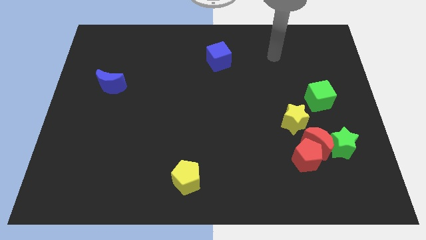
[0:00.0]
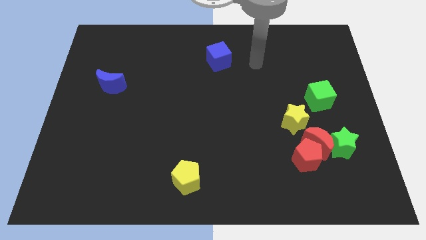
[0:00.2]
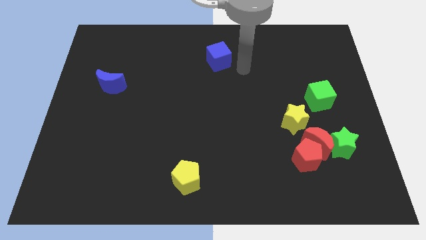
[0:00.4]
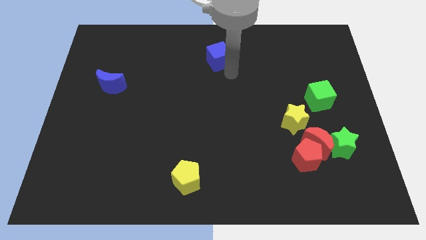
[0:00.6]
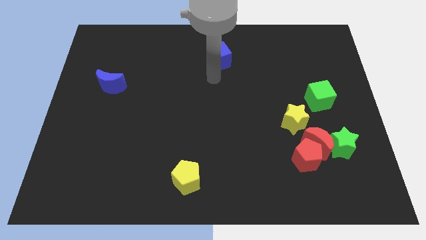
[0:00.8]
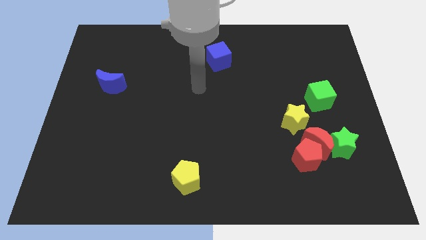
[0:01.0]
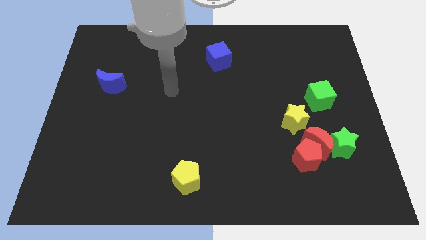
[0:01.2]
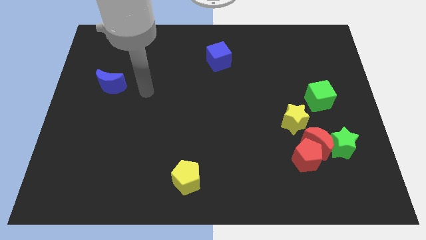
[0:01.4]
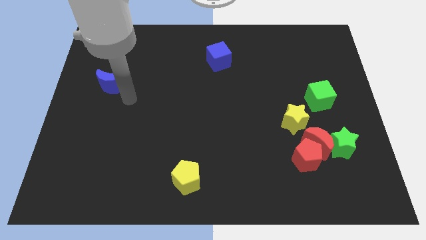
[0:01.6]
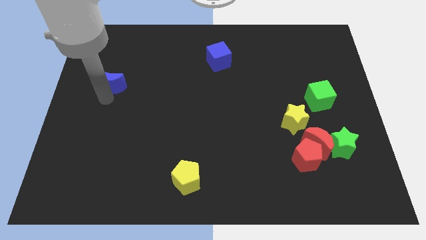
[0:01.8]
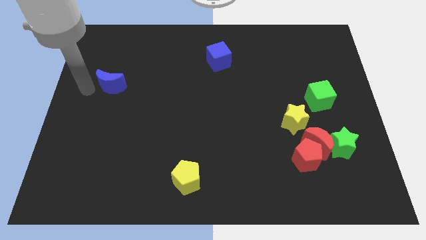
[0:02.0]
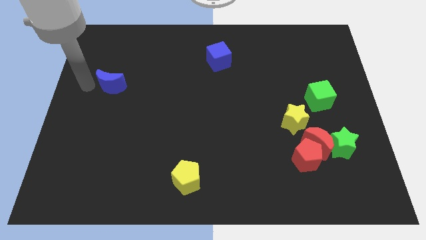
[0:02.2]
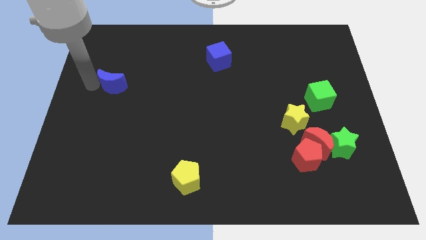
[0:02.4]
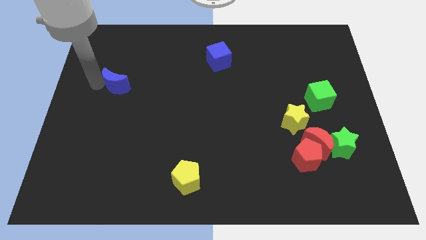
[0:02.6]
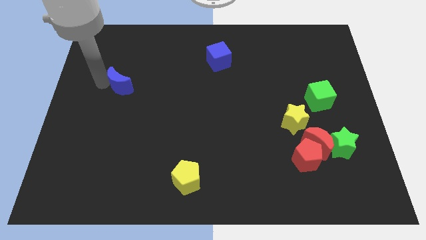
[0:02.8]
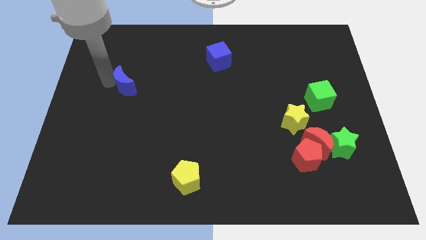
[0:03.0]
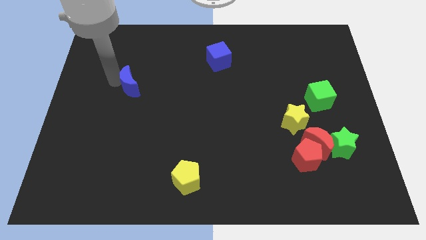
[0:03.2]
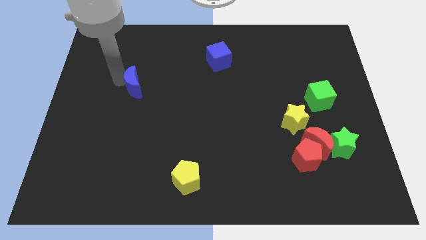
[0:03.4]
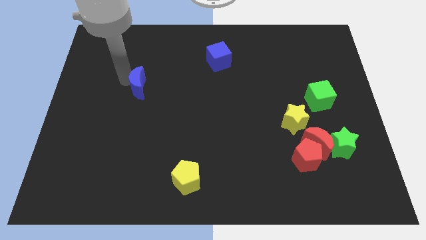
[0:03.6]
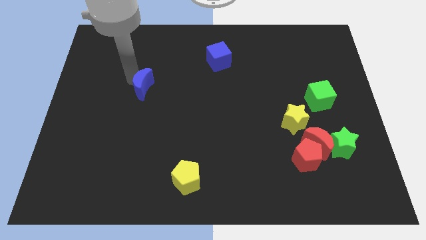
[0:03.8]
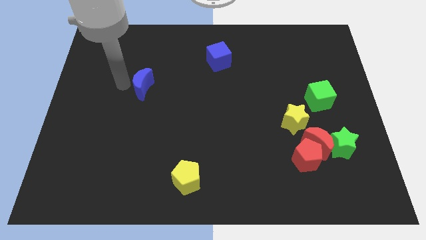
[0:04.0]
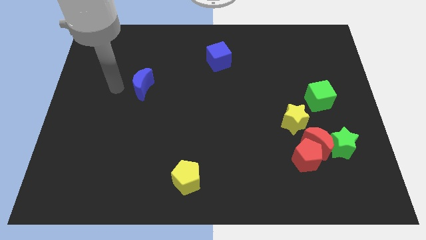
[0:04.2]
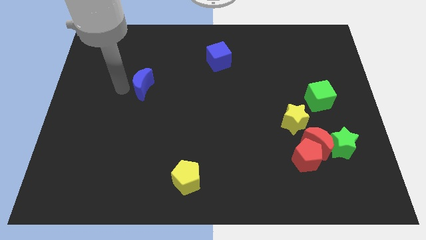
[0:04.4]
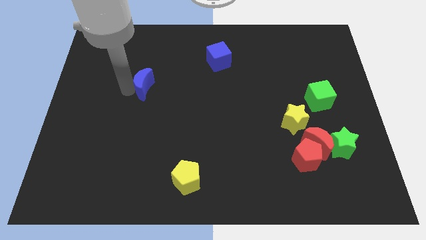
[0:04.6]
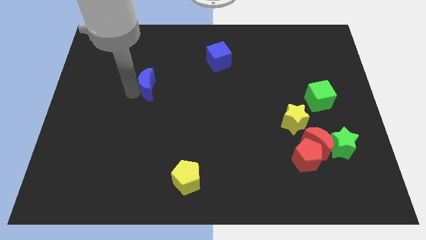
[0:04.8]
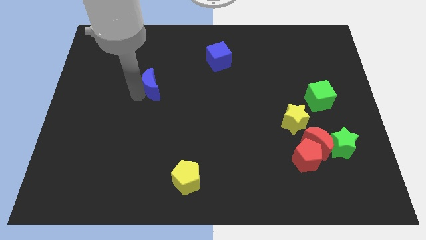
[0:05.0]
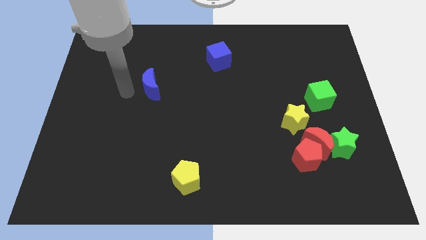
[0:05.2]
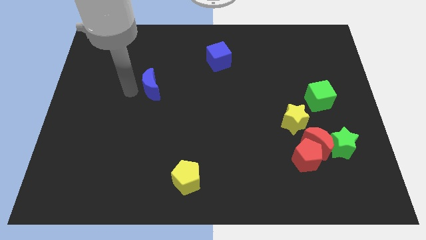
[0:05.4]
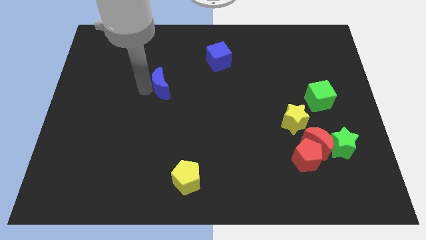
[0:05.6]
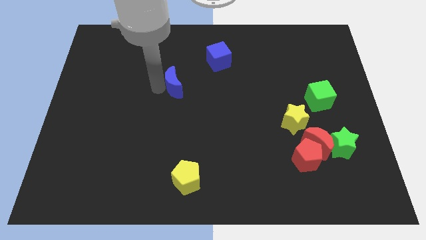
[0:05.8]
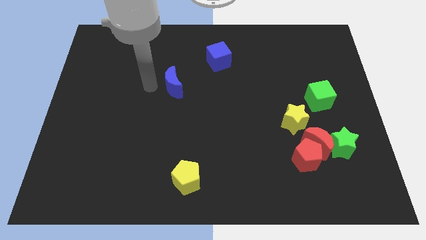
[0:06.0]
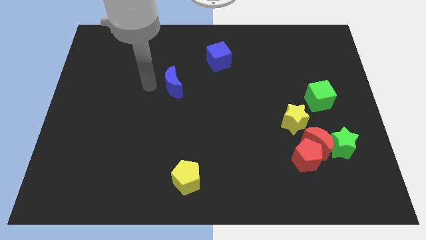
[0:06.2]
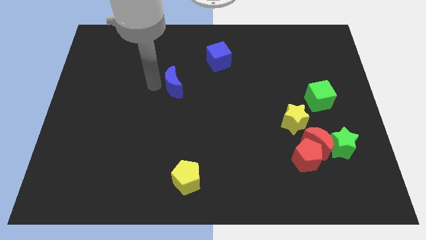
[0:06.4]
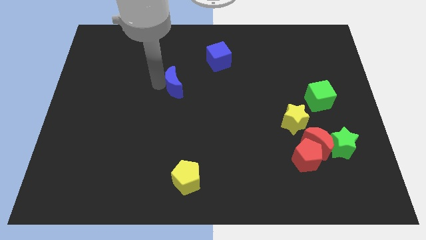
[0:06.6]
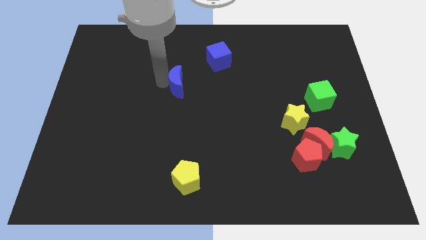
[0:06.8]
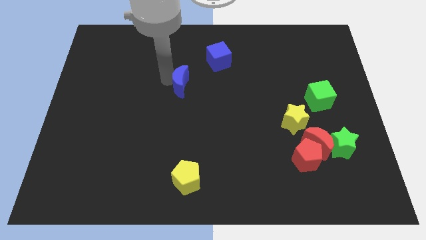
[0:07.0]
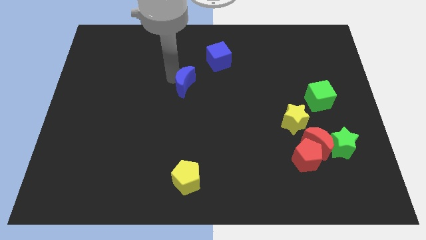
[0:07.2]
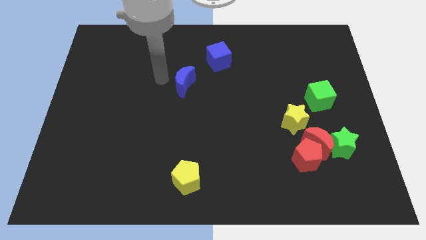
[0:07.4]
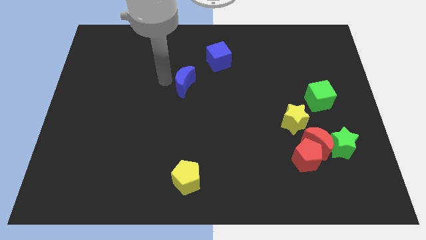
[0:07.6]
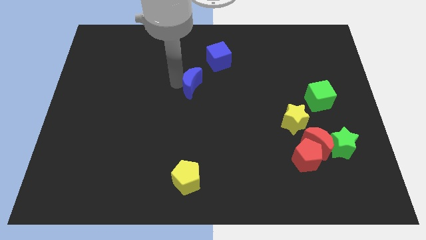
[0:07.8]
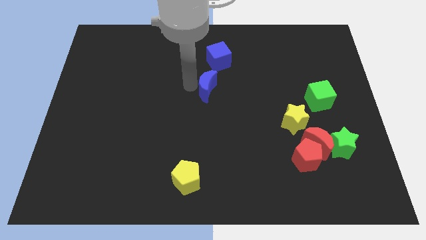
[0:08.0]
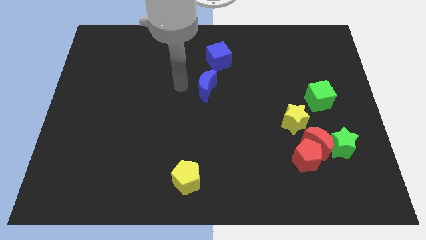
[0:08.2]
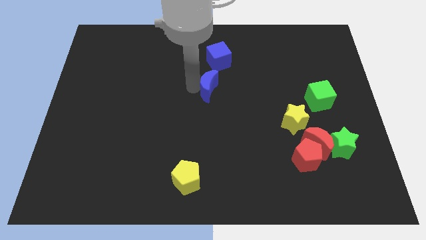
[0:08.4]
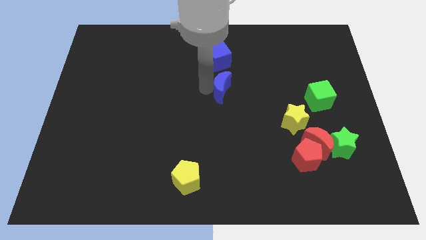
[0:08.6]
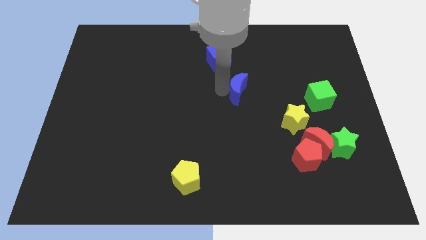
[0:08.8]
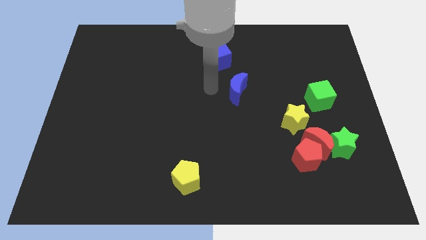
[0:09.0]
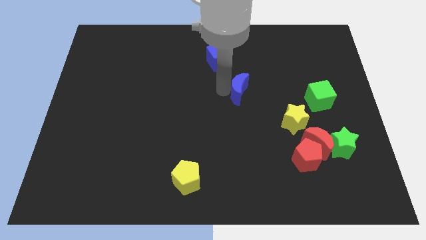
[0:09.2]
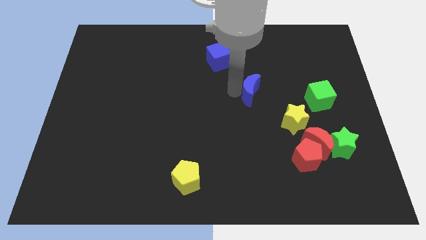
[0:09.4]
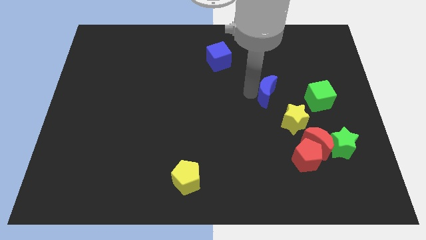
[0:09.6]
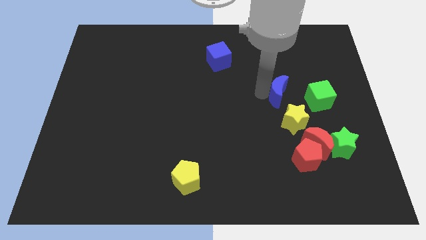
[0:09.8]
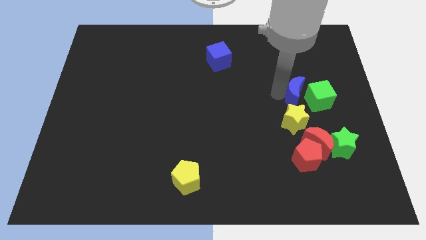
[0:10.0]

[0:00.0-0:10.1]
push the blue moon next to the green cube

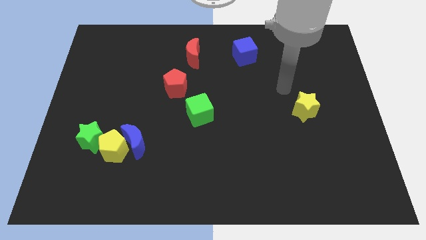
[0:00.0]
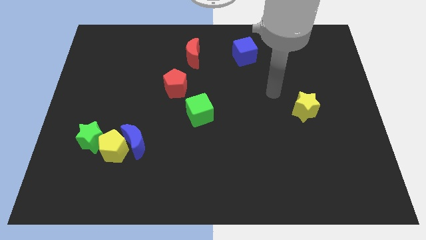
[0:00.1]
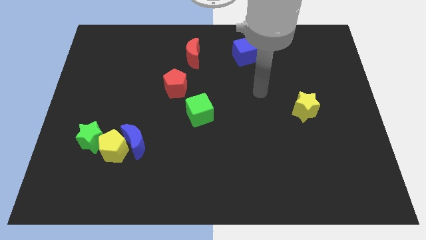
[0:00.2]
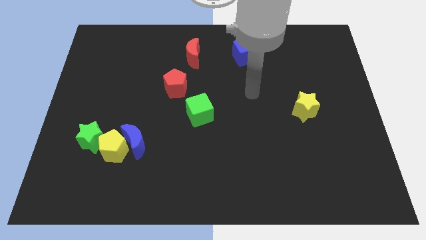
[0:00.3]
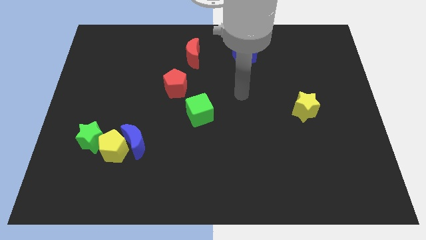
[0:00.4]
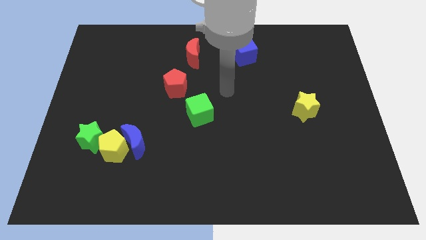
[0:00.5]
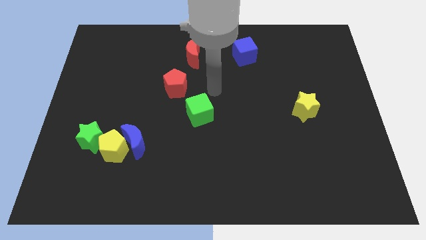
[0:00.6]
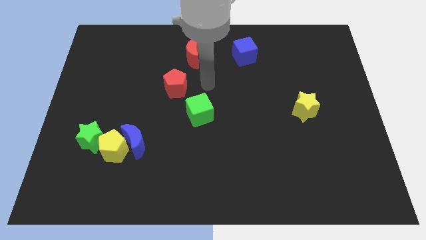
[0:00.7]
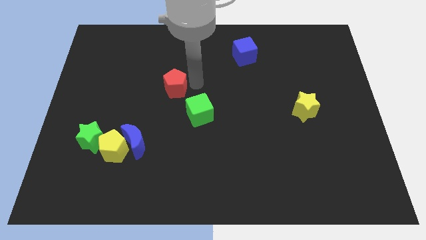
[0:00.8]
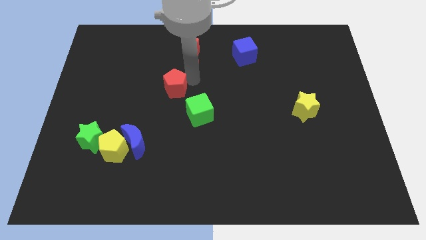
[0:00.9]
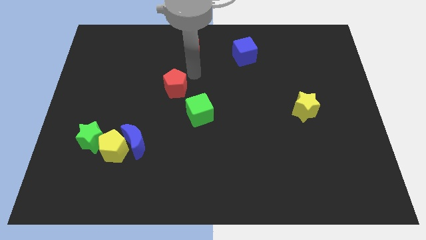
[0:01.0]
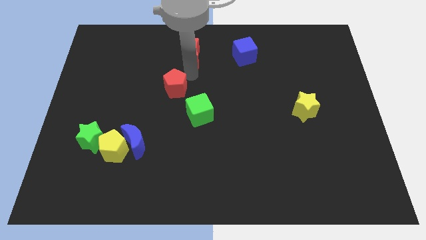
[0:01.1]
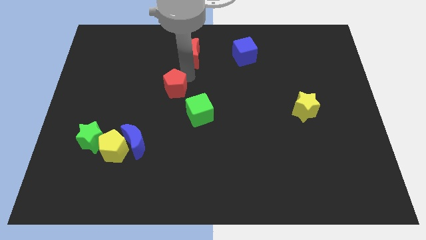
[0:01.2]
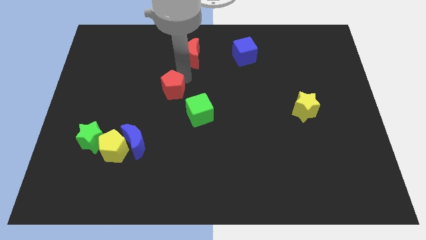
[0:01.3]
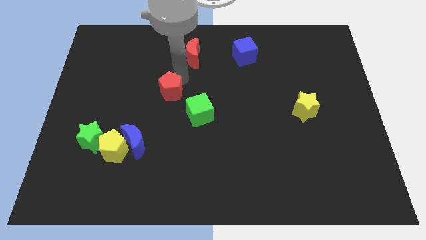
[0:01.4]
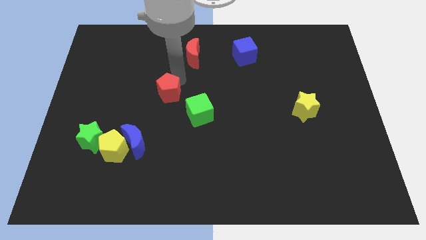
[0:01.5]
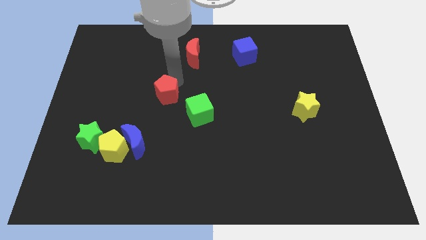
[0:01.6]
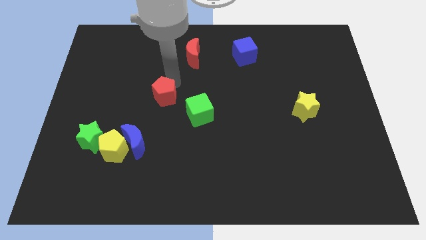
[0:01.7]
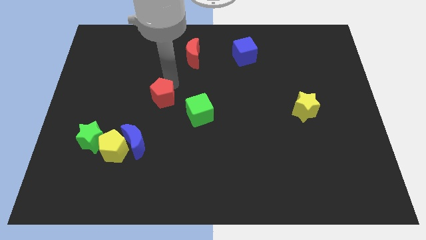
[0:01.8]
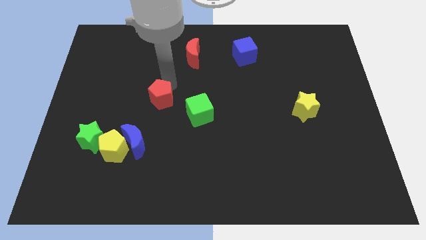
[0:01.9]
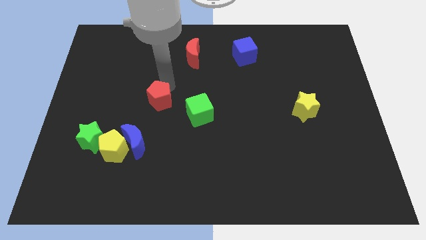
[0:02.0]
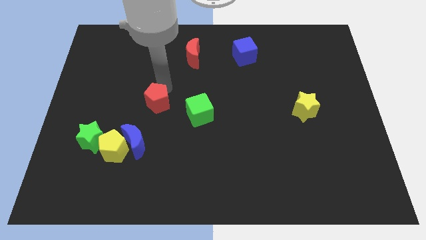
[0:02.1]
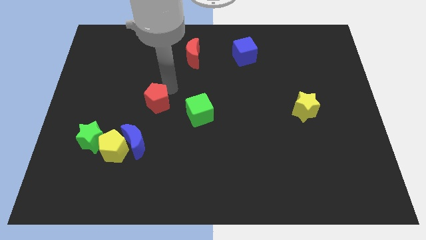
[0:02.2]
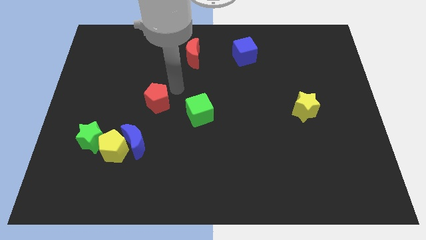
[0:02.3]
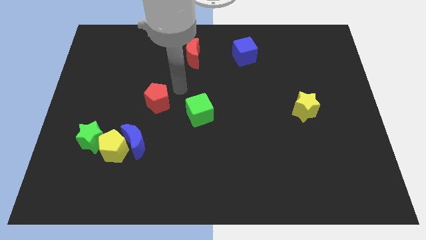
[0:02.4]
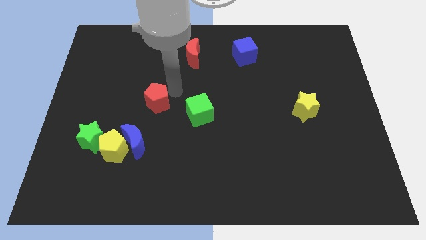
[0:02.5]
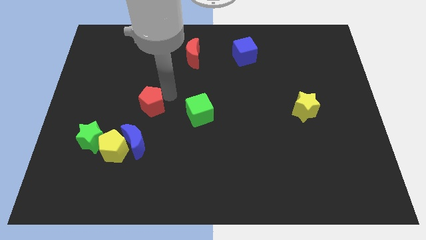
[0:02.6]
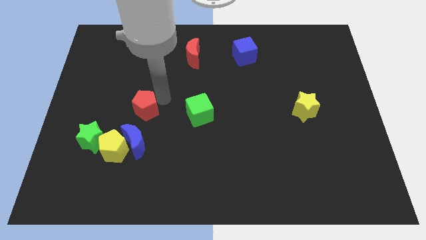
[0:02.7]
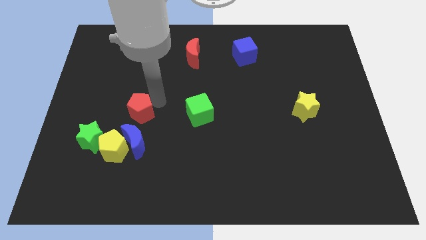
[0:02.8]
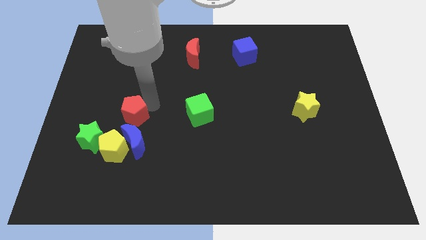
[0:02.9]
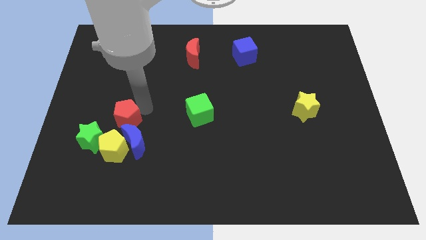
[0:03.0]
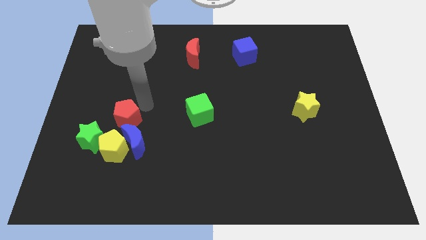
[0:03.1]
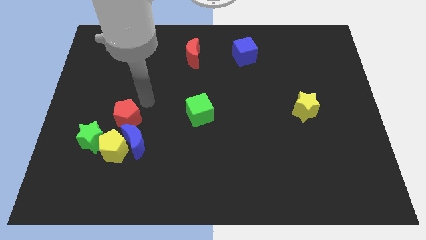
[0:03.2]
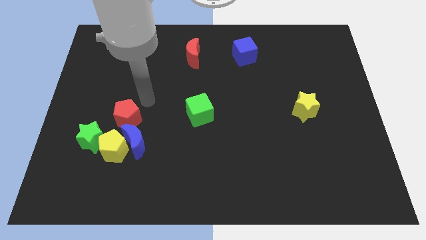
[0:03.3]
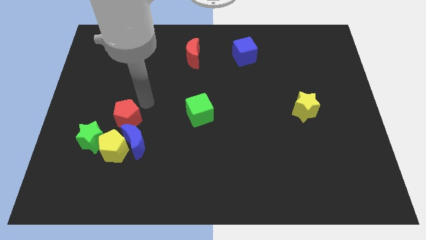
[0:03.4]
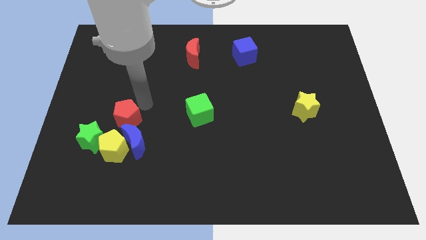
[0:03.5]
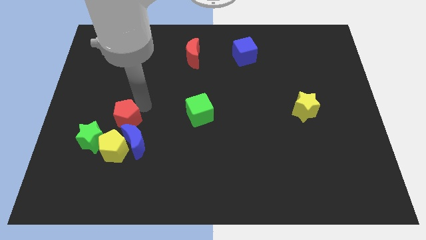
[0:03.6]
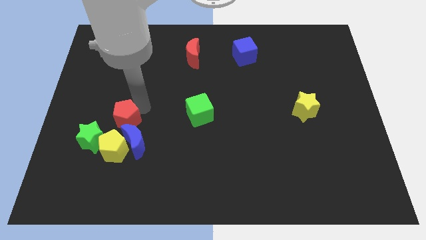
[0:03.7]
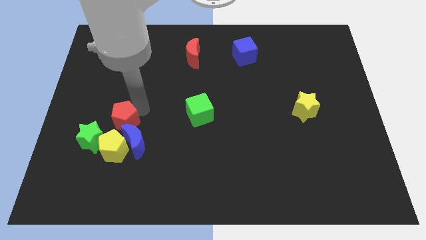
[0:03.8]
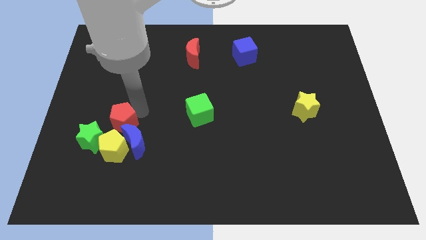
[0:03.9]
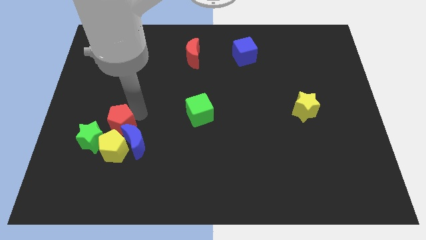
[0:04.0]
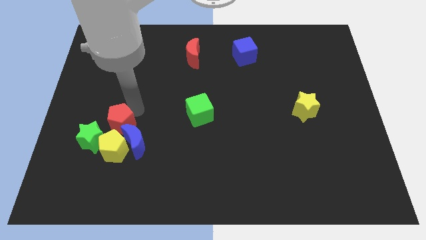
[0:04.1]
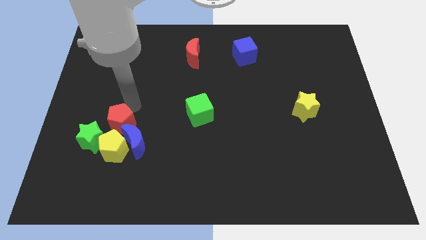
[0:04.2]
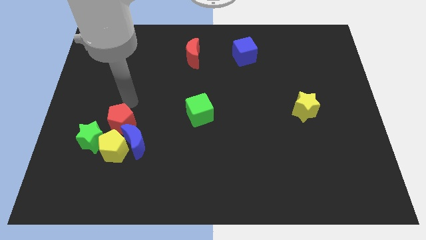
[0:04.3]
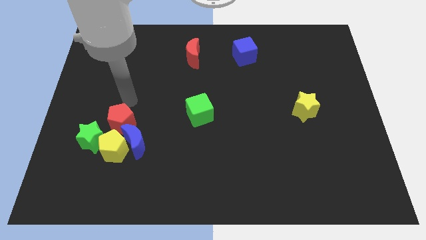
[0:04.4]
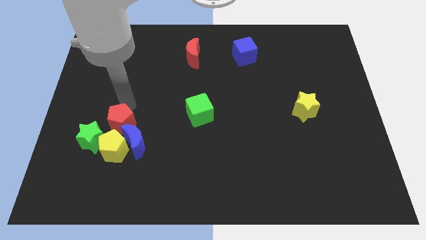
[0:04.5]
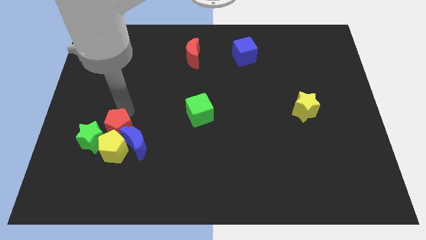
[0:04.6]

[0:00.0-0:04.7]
move the red pentagon next to the yellow pentagon
